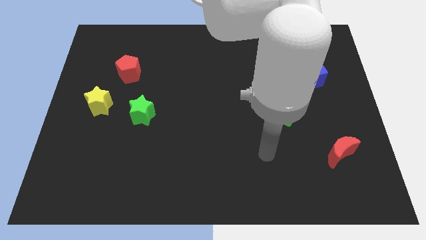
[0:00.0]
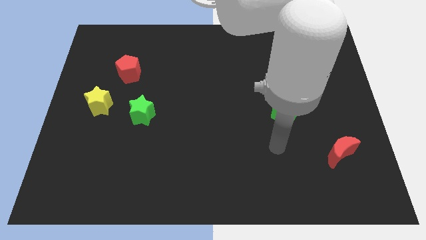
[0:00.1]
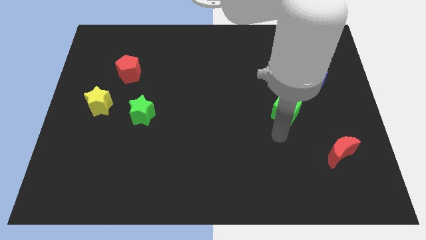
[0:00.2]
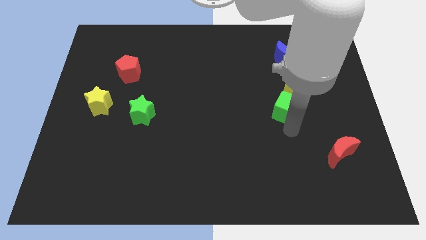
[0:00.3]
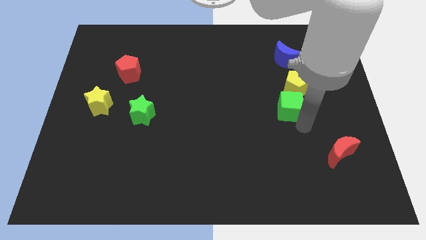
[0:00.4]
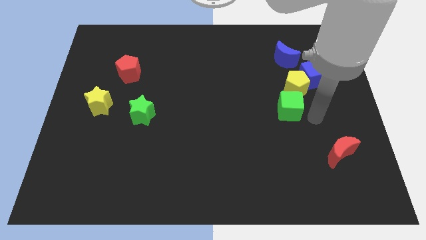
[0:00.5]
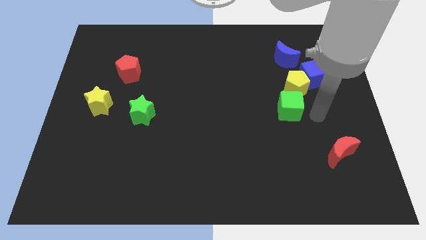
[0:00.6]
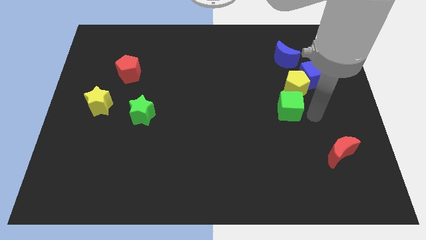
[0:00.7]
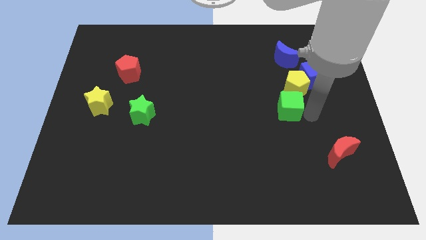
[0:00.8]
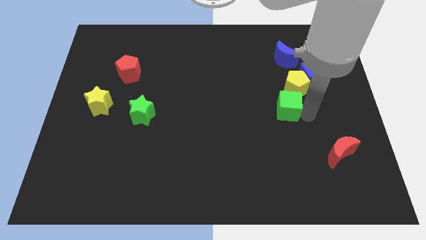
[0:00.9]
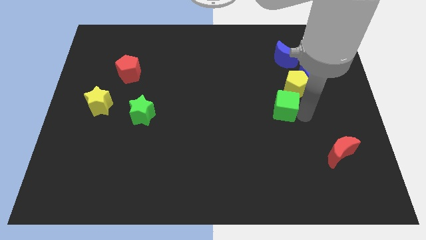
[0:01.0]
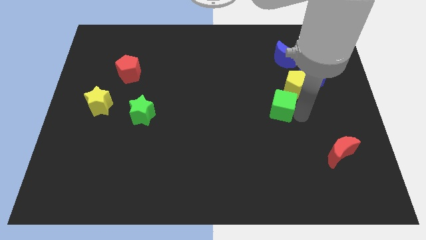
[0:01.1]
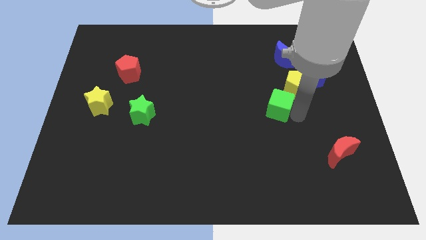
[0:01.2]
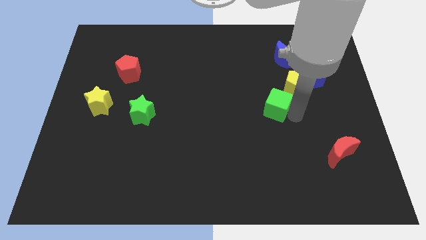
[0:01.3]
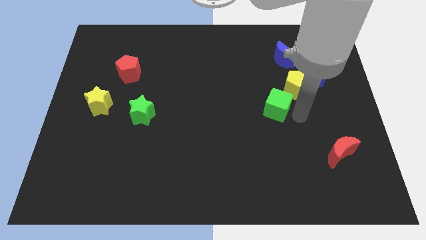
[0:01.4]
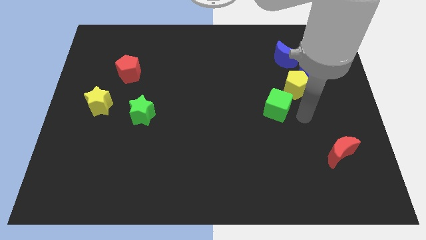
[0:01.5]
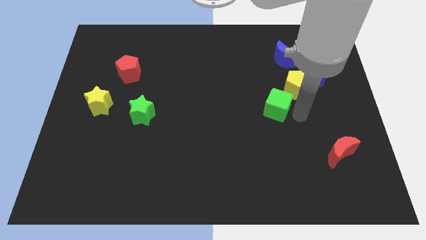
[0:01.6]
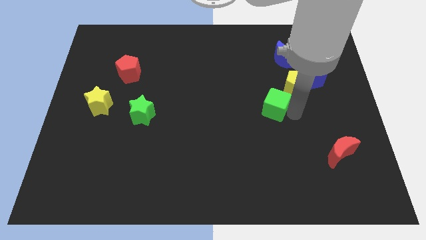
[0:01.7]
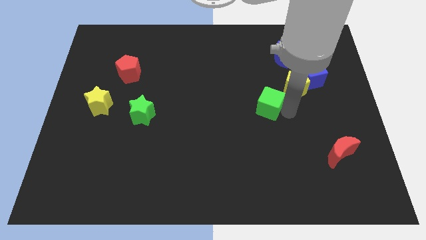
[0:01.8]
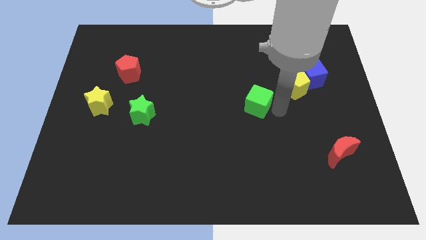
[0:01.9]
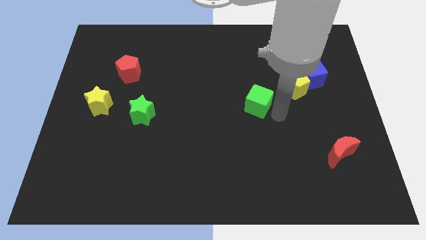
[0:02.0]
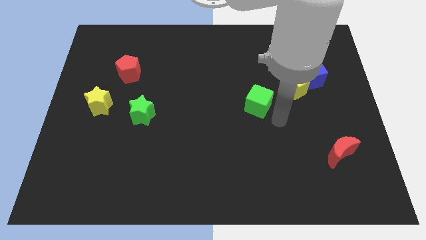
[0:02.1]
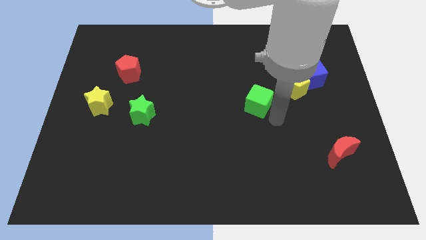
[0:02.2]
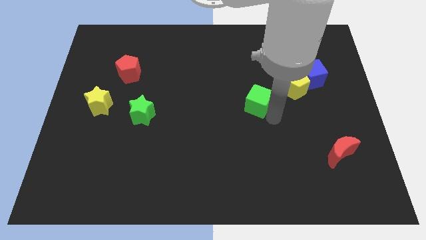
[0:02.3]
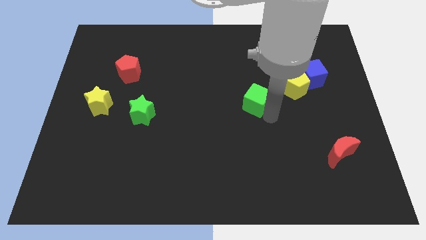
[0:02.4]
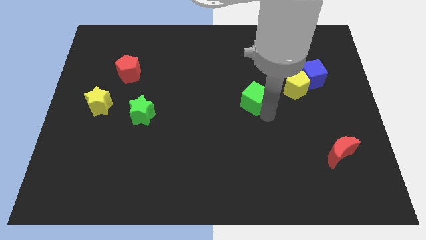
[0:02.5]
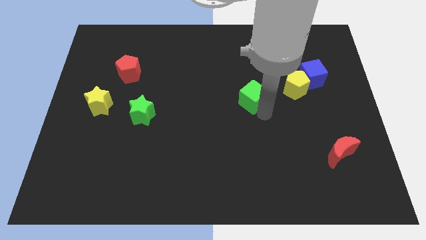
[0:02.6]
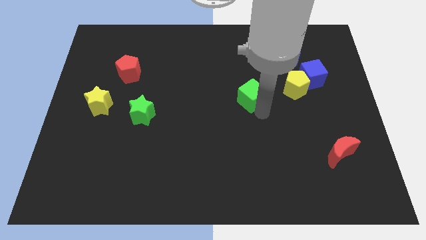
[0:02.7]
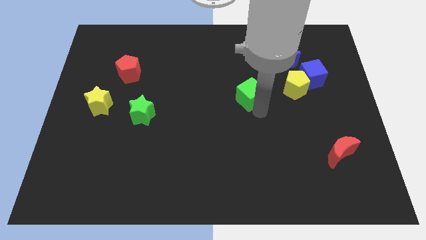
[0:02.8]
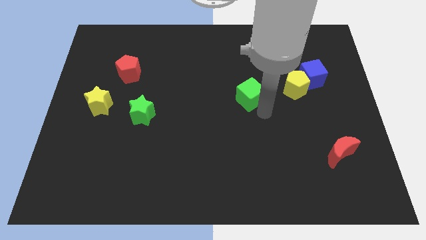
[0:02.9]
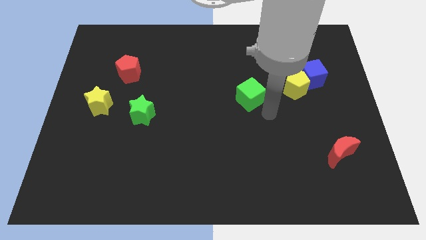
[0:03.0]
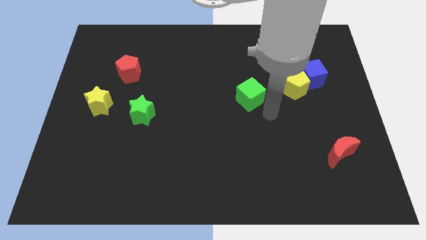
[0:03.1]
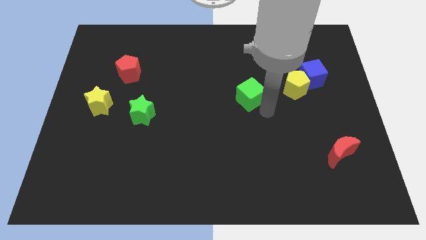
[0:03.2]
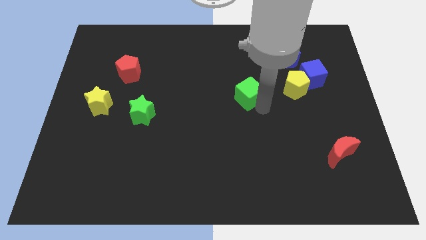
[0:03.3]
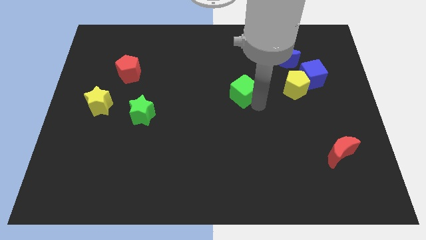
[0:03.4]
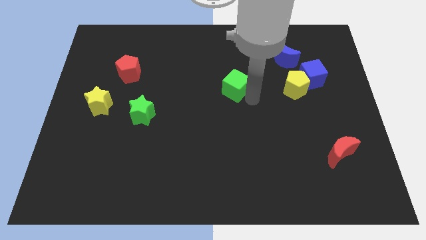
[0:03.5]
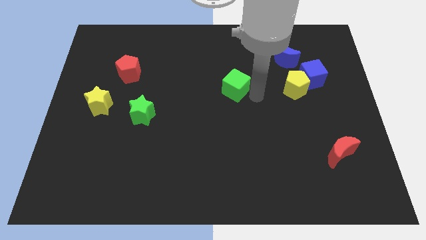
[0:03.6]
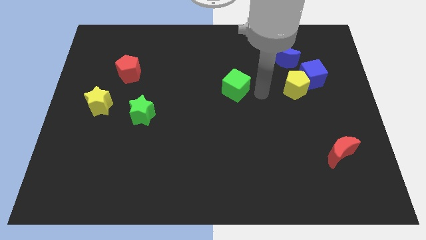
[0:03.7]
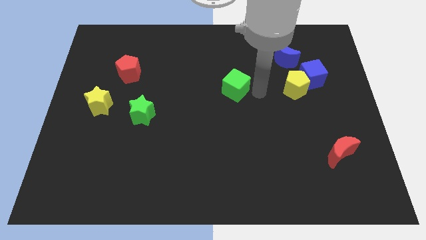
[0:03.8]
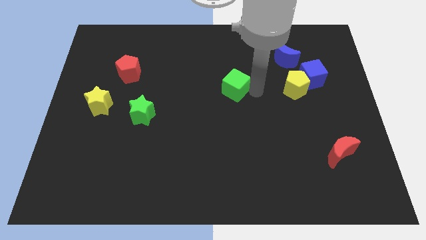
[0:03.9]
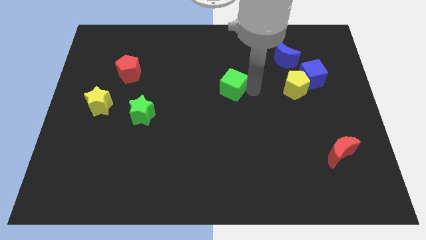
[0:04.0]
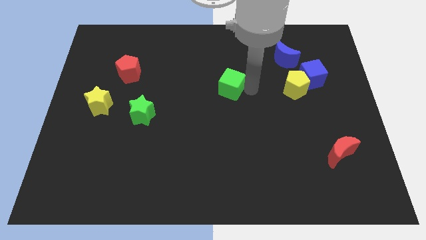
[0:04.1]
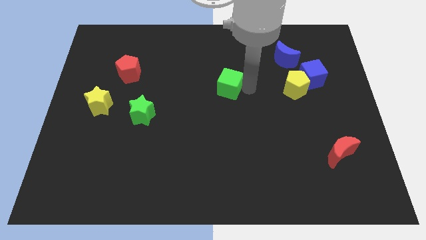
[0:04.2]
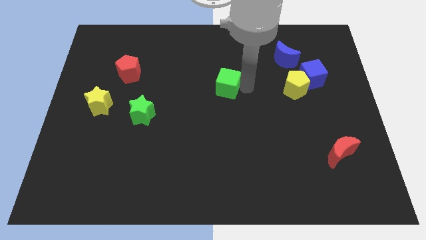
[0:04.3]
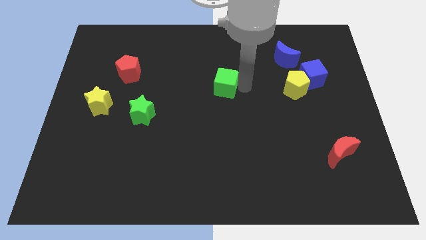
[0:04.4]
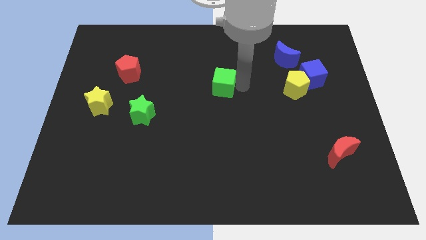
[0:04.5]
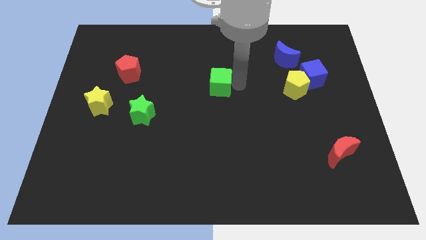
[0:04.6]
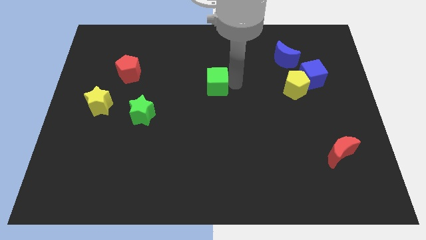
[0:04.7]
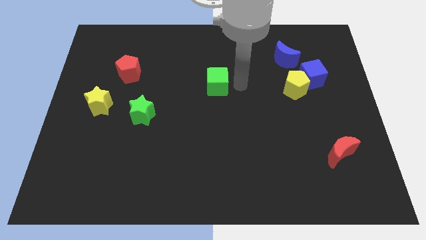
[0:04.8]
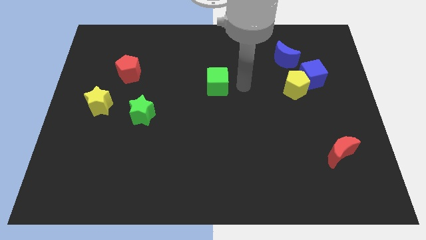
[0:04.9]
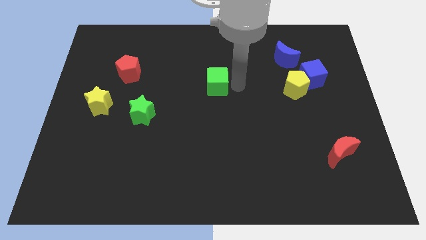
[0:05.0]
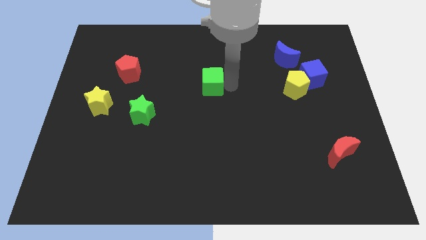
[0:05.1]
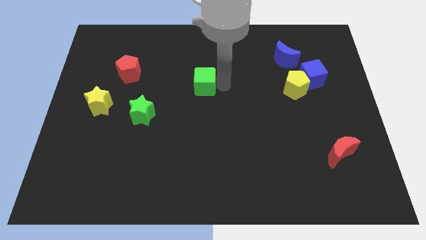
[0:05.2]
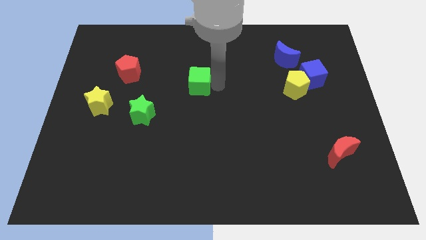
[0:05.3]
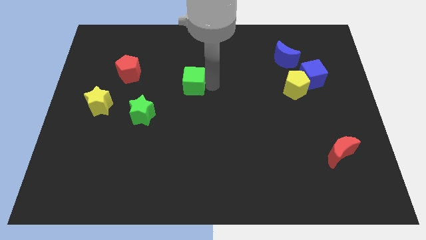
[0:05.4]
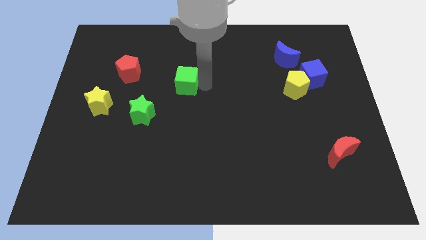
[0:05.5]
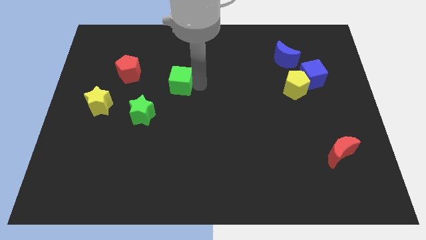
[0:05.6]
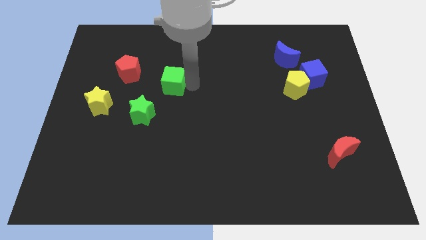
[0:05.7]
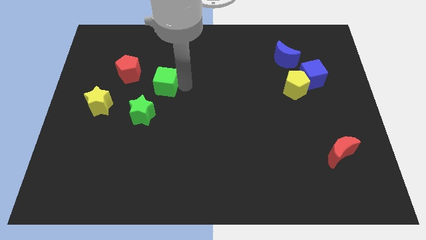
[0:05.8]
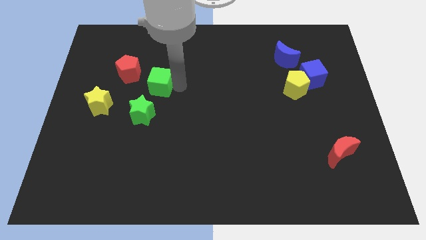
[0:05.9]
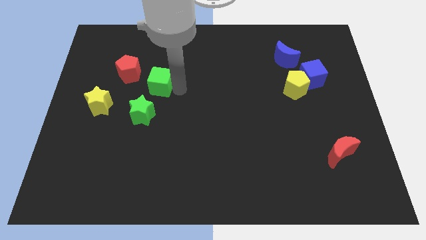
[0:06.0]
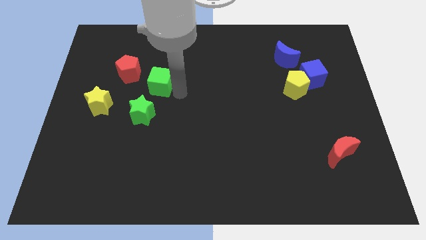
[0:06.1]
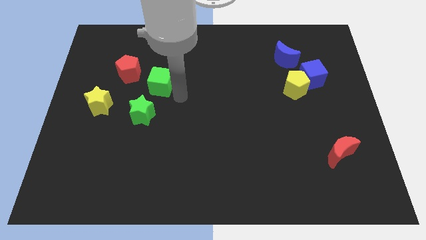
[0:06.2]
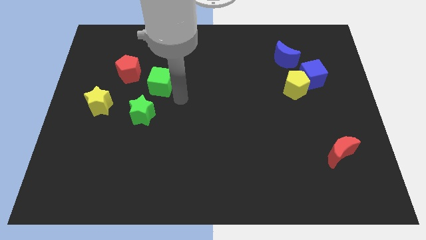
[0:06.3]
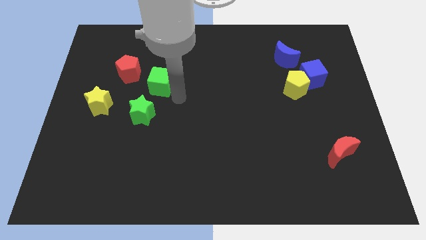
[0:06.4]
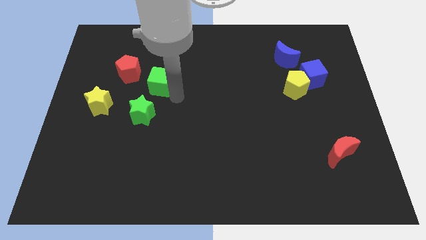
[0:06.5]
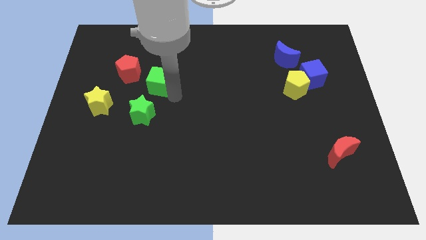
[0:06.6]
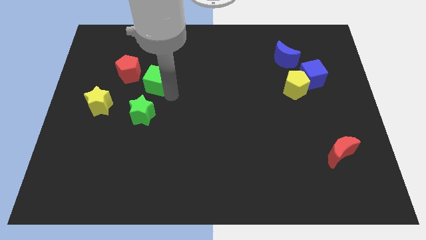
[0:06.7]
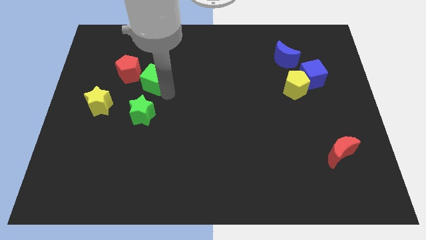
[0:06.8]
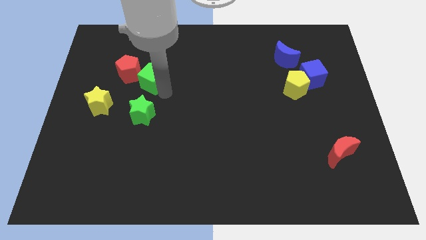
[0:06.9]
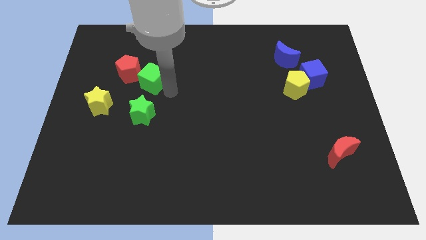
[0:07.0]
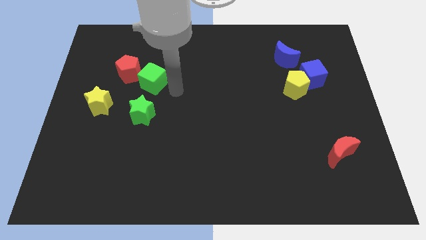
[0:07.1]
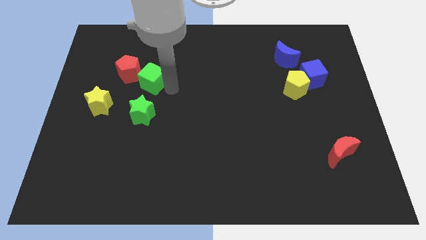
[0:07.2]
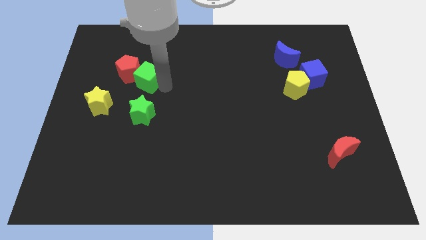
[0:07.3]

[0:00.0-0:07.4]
put the green cube next to the red pentagon
